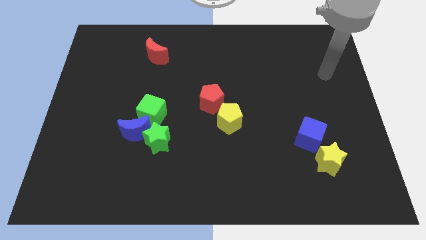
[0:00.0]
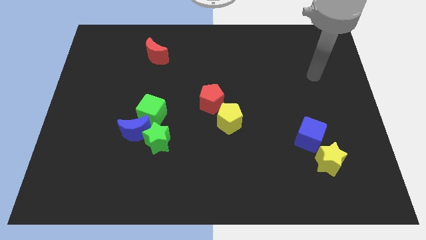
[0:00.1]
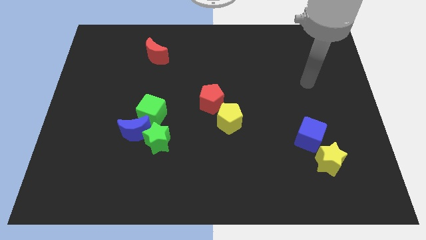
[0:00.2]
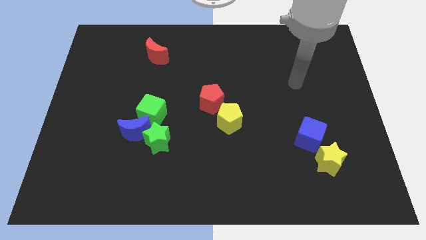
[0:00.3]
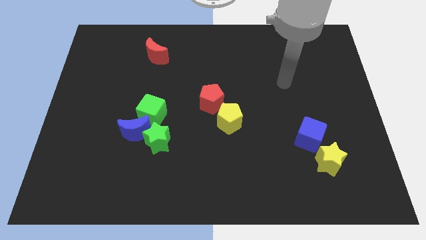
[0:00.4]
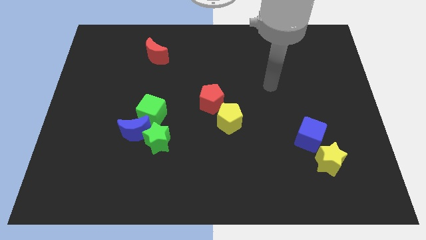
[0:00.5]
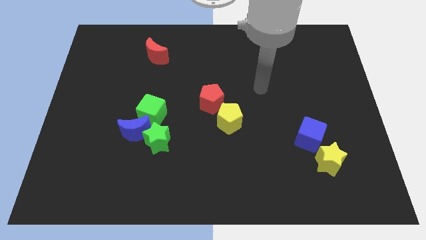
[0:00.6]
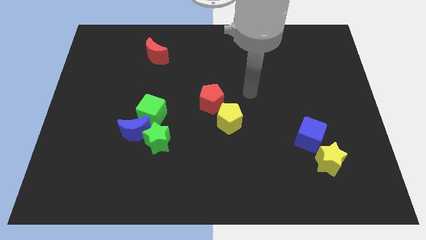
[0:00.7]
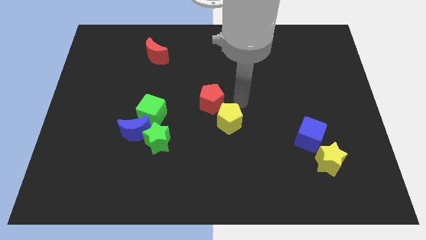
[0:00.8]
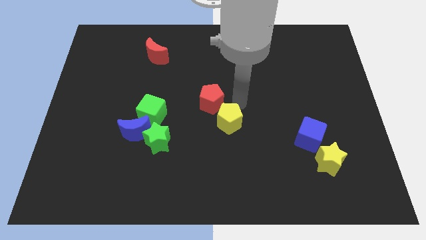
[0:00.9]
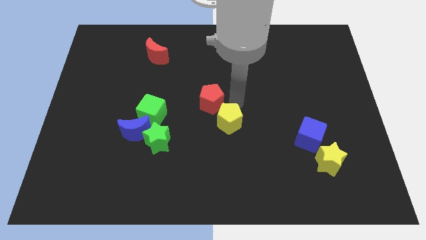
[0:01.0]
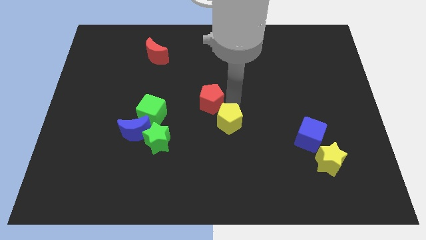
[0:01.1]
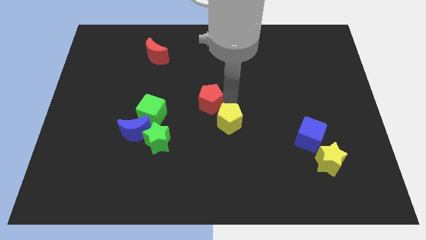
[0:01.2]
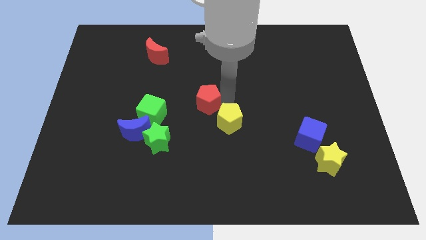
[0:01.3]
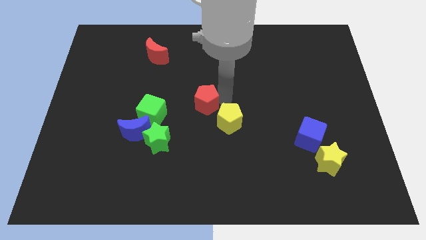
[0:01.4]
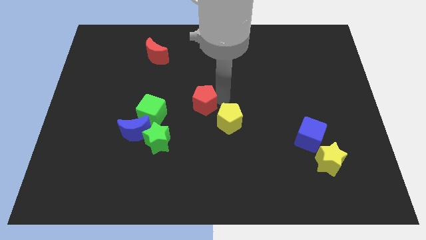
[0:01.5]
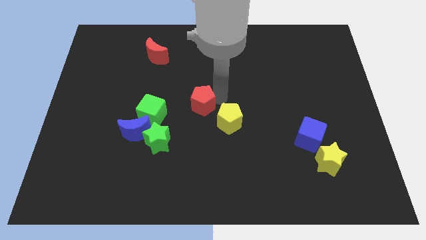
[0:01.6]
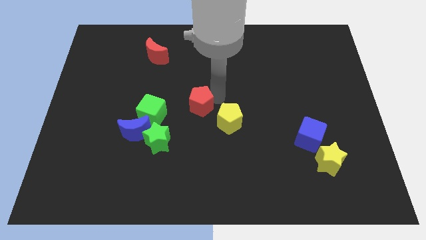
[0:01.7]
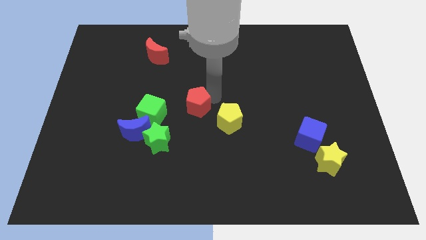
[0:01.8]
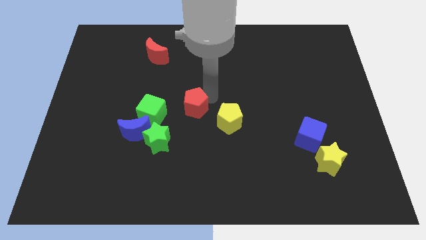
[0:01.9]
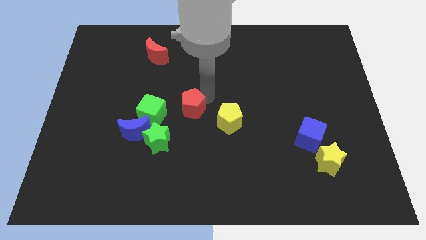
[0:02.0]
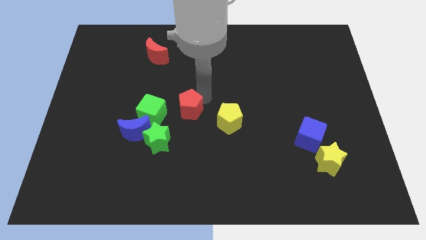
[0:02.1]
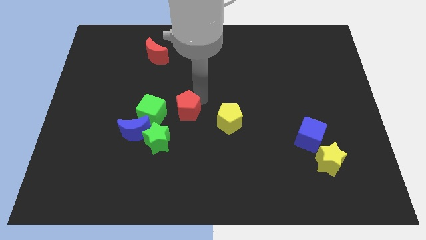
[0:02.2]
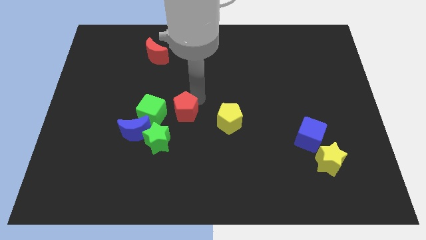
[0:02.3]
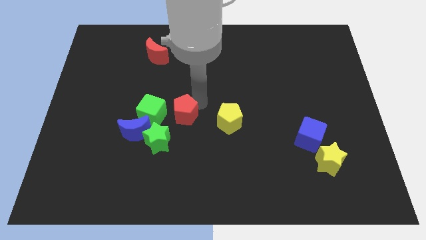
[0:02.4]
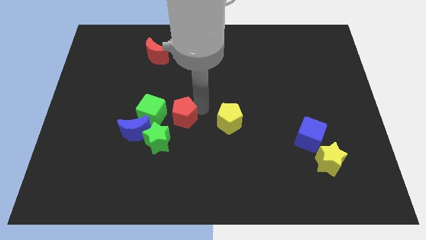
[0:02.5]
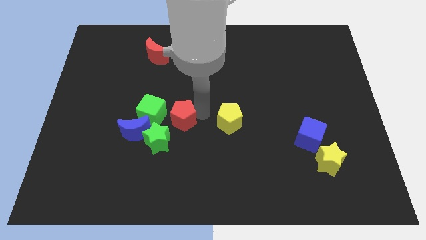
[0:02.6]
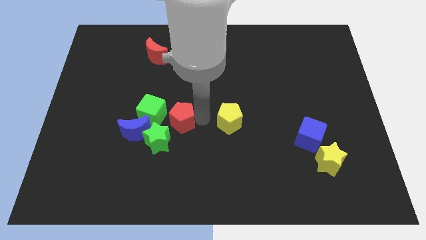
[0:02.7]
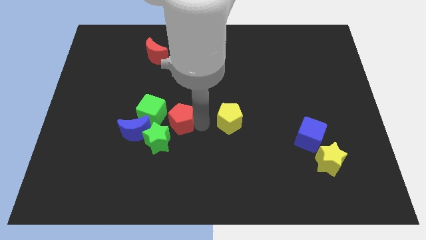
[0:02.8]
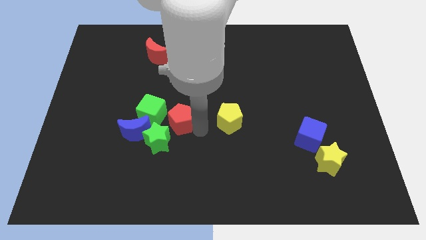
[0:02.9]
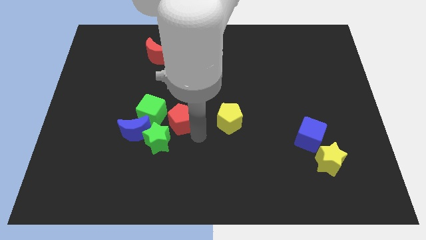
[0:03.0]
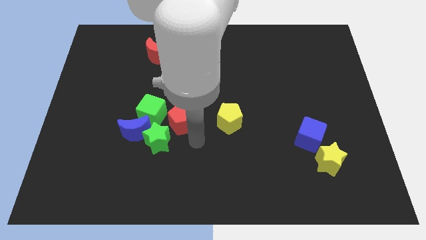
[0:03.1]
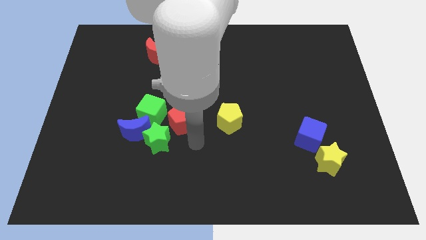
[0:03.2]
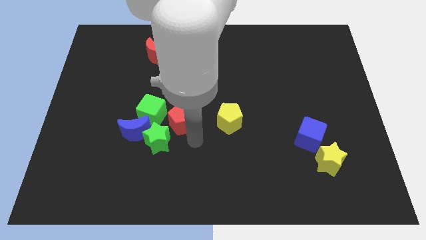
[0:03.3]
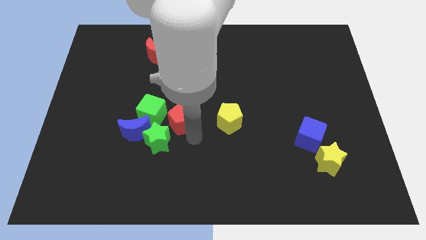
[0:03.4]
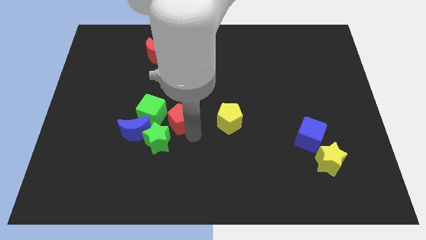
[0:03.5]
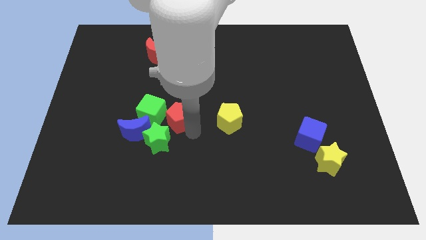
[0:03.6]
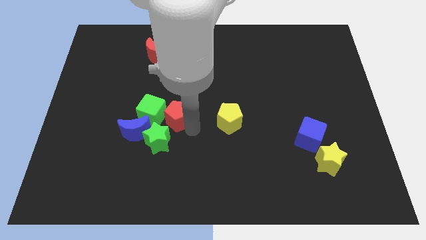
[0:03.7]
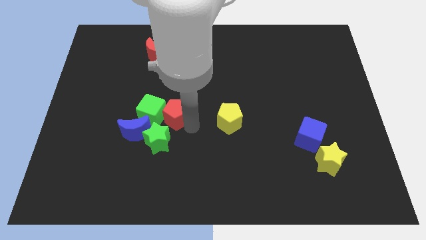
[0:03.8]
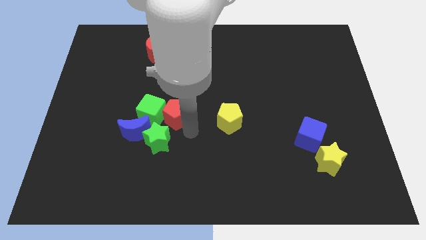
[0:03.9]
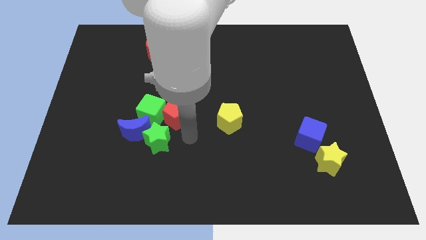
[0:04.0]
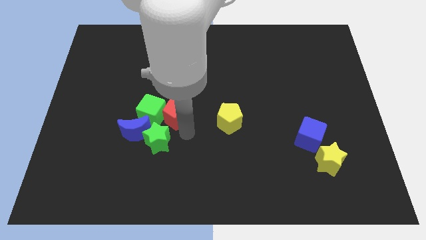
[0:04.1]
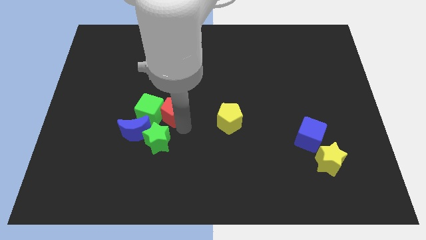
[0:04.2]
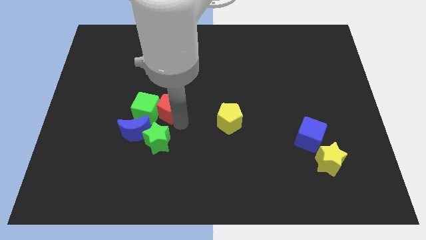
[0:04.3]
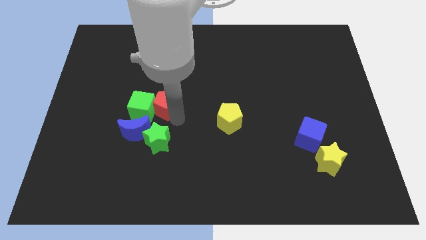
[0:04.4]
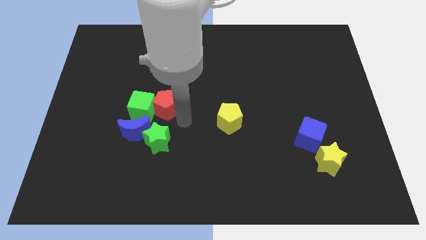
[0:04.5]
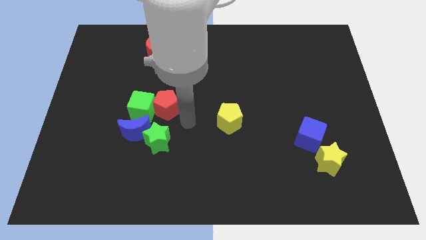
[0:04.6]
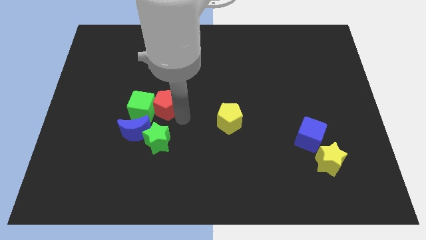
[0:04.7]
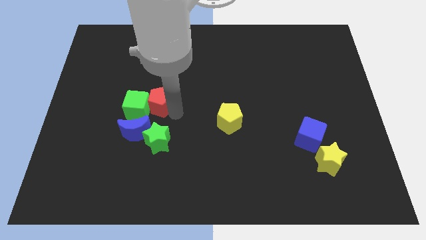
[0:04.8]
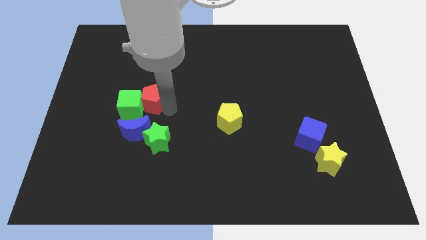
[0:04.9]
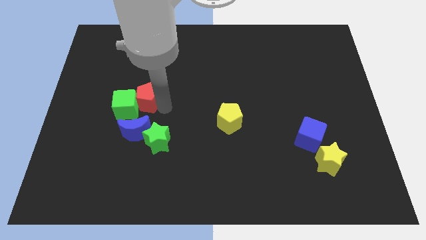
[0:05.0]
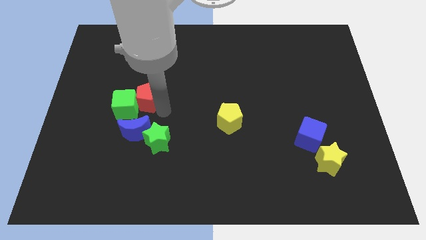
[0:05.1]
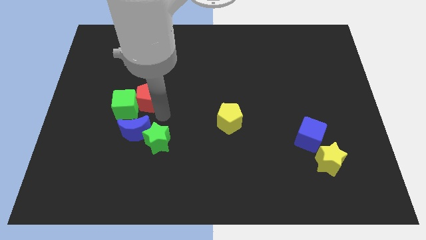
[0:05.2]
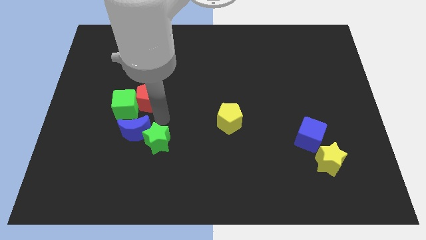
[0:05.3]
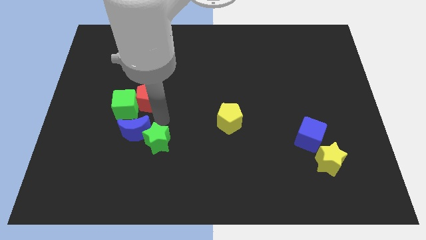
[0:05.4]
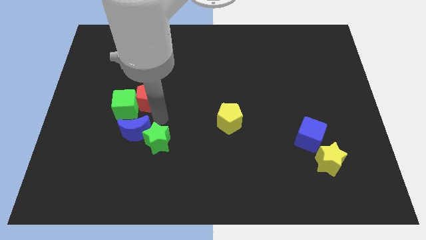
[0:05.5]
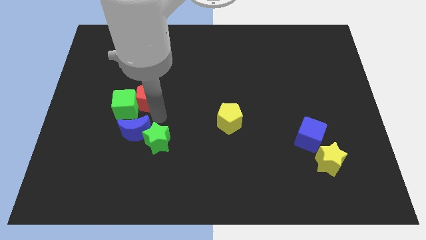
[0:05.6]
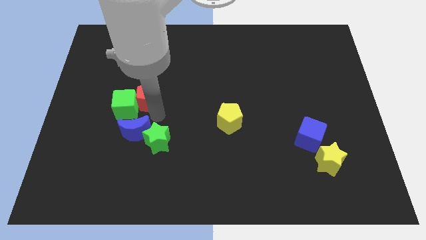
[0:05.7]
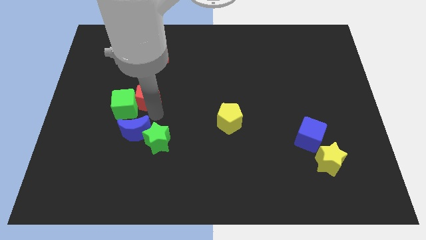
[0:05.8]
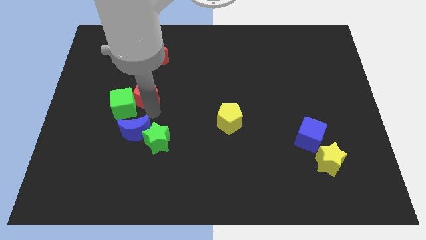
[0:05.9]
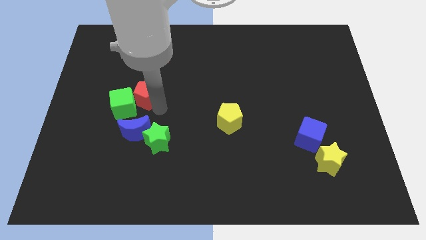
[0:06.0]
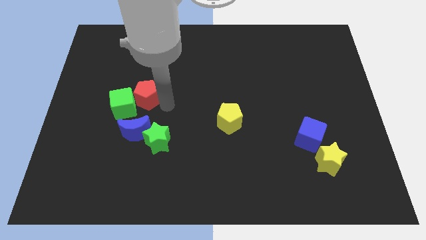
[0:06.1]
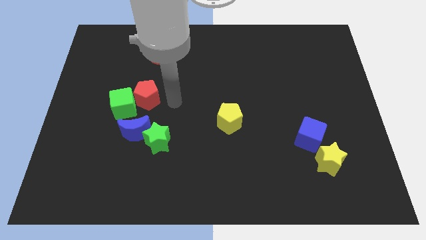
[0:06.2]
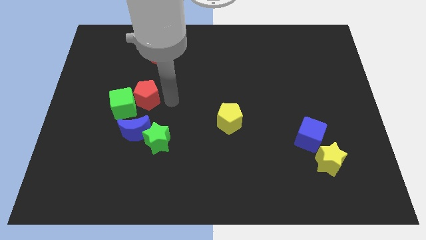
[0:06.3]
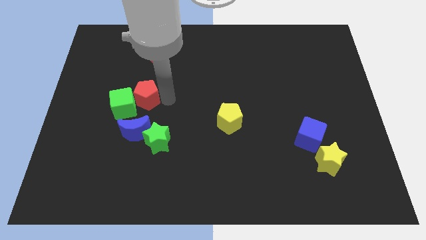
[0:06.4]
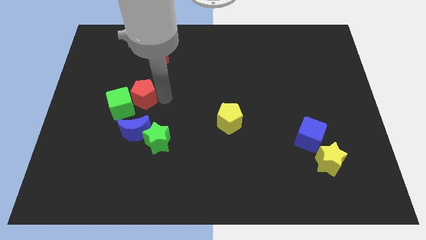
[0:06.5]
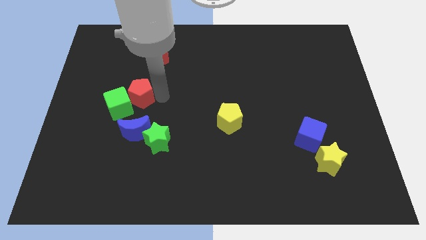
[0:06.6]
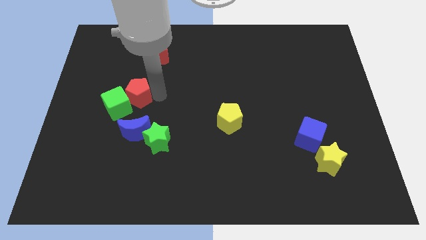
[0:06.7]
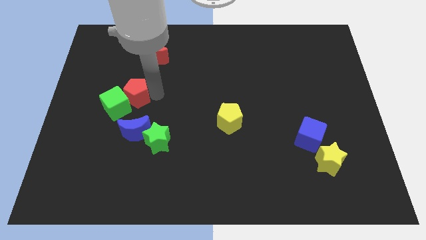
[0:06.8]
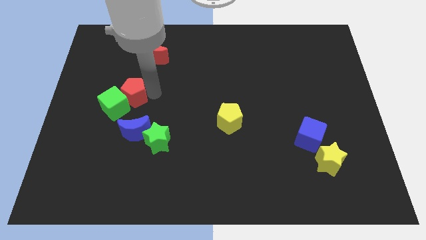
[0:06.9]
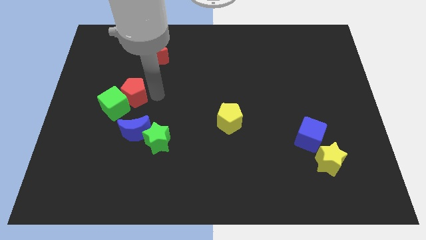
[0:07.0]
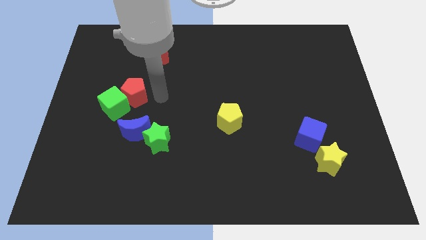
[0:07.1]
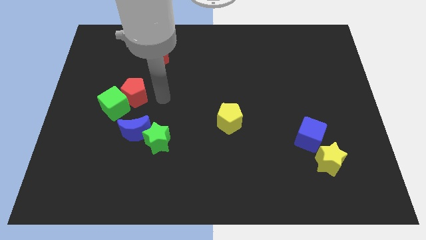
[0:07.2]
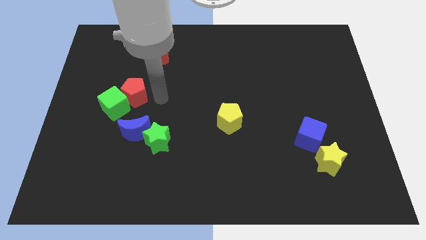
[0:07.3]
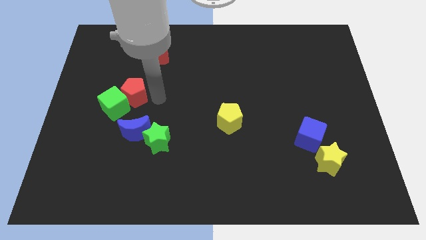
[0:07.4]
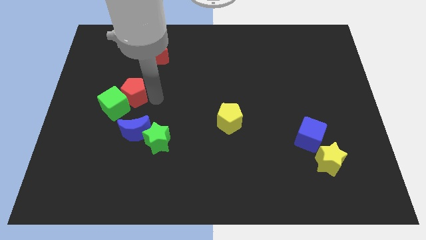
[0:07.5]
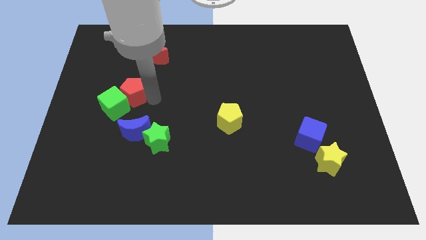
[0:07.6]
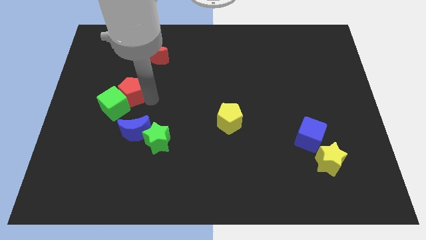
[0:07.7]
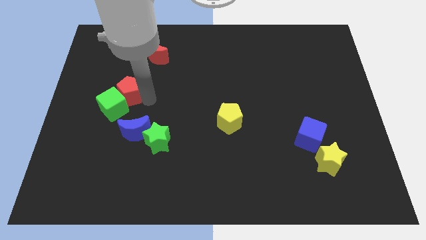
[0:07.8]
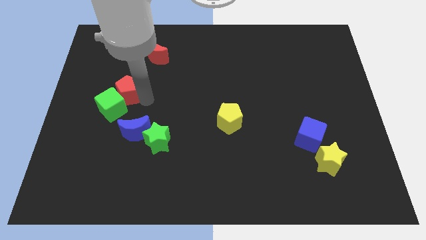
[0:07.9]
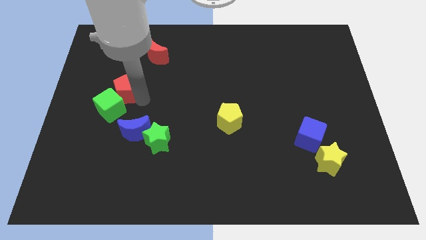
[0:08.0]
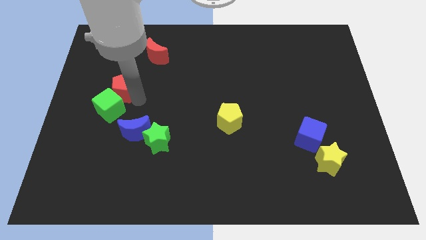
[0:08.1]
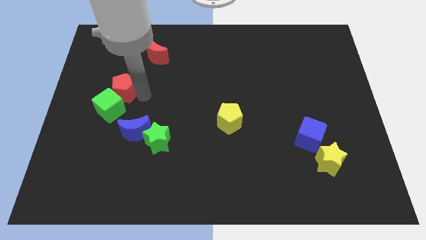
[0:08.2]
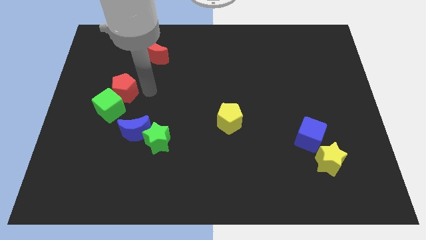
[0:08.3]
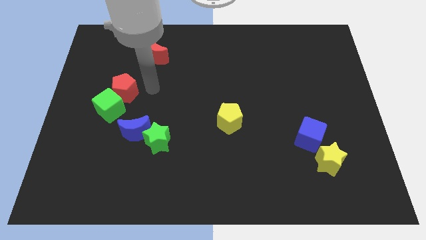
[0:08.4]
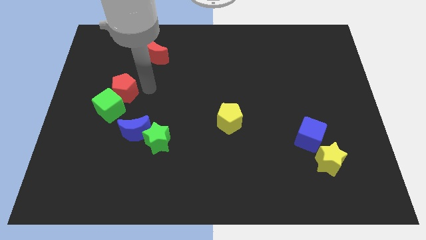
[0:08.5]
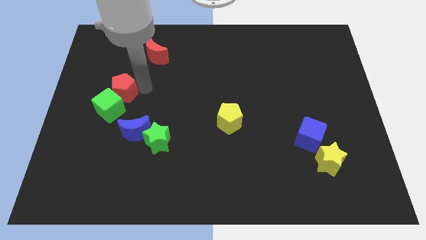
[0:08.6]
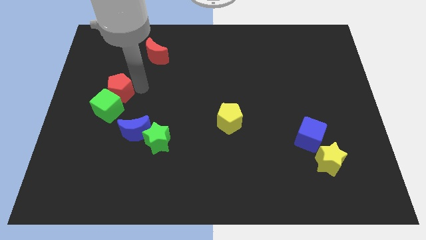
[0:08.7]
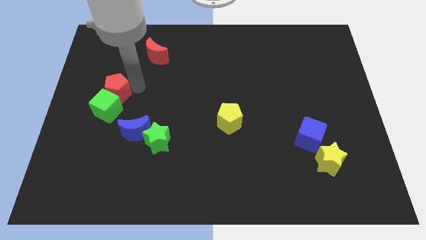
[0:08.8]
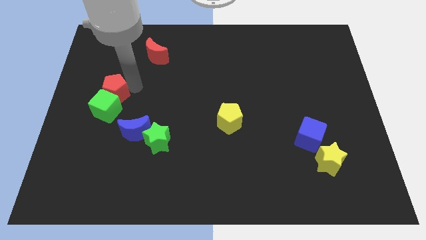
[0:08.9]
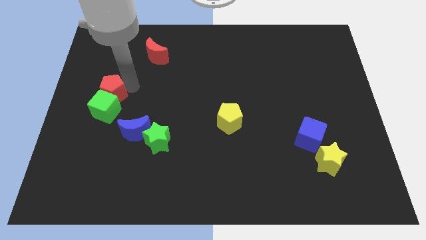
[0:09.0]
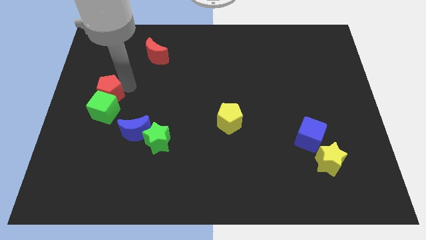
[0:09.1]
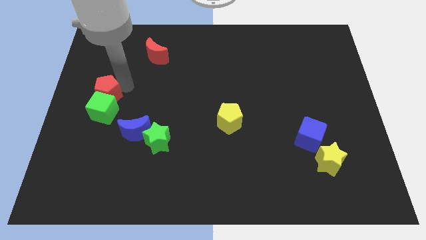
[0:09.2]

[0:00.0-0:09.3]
put the red pentagon to the left side of the board
